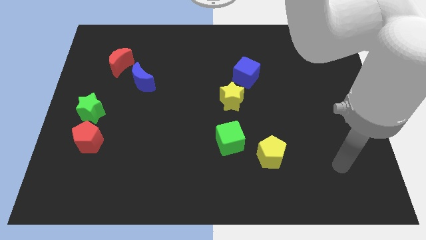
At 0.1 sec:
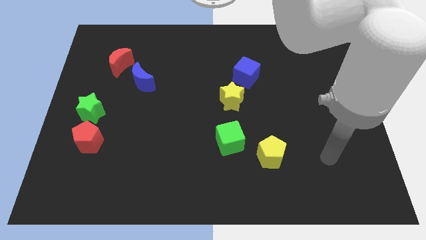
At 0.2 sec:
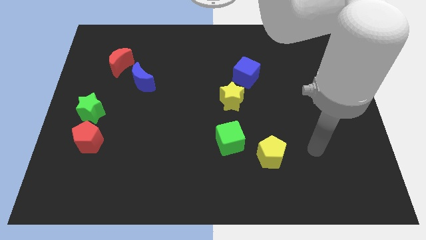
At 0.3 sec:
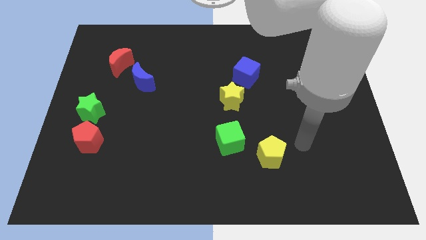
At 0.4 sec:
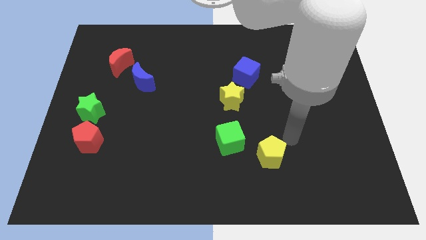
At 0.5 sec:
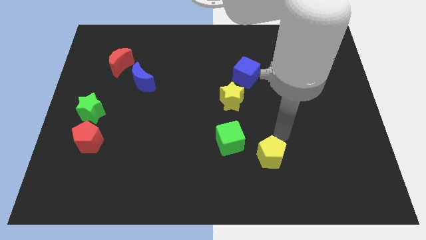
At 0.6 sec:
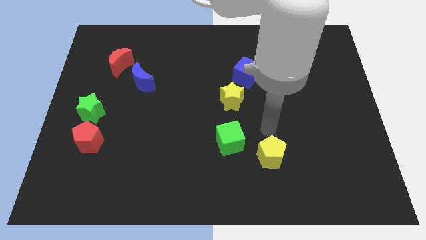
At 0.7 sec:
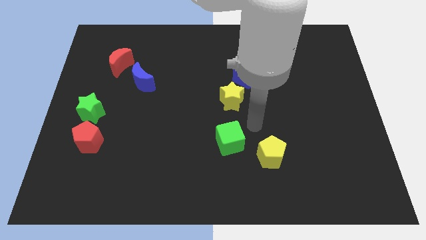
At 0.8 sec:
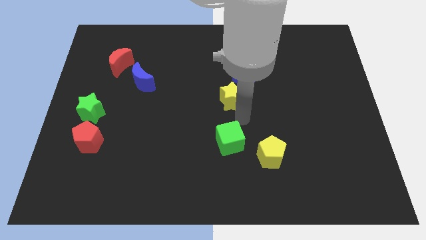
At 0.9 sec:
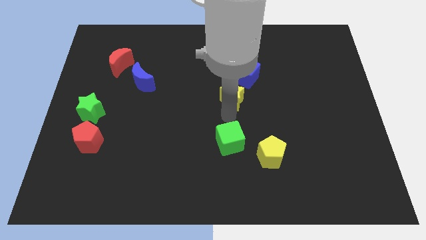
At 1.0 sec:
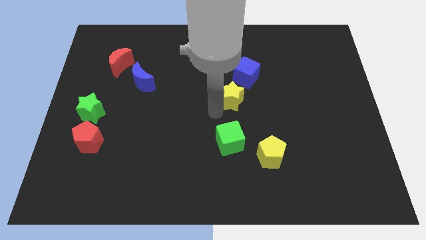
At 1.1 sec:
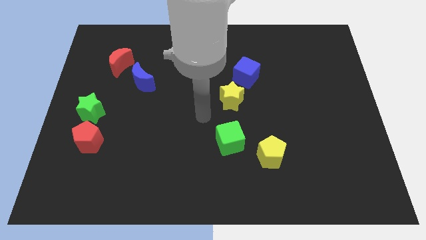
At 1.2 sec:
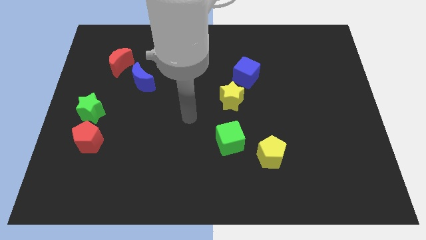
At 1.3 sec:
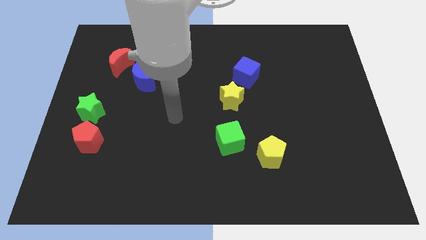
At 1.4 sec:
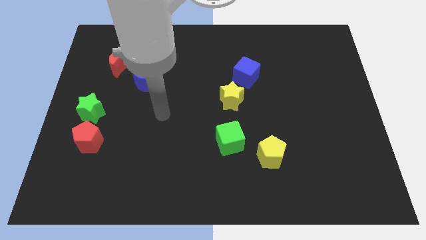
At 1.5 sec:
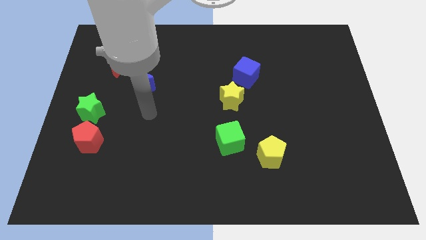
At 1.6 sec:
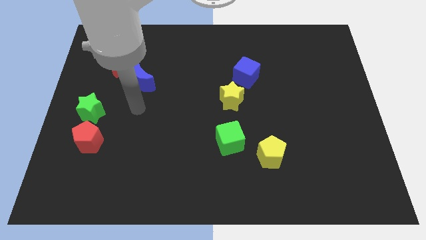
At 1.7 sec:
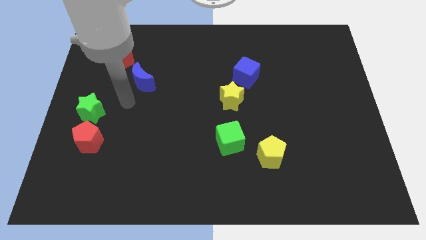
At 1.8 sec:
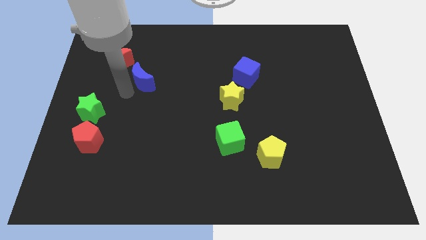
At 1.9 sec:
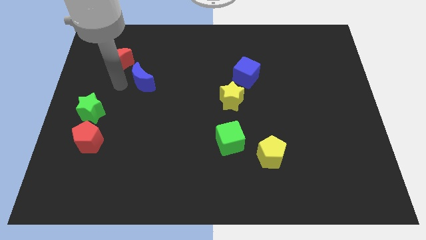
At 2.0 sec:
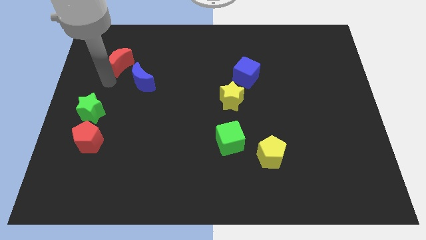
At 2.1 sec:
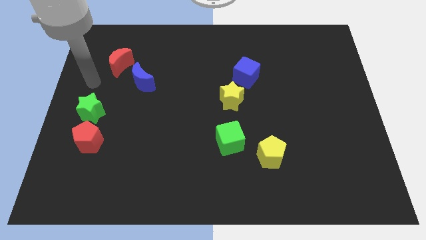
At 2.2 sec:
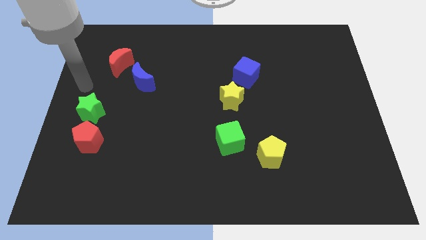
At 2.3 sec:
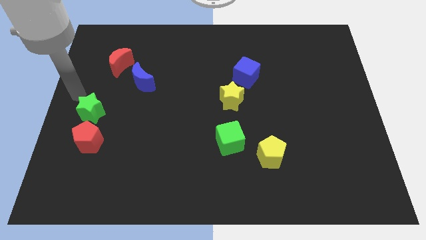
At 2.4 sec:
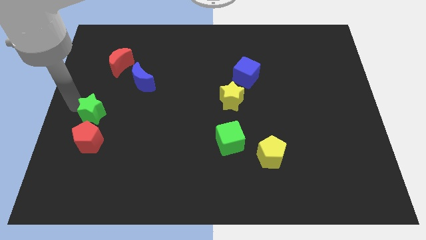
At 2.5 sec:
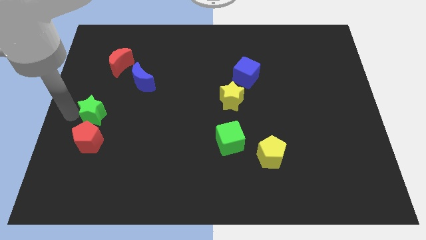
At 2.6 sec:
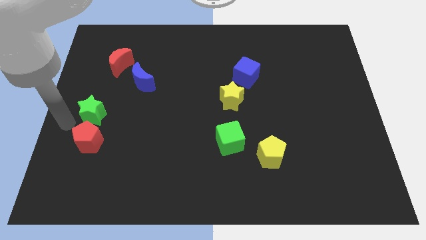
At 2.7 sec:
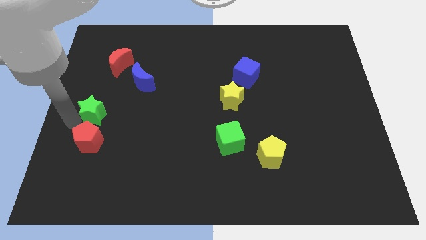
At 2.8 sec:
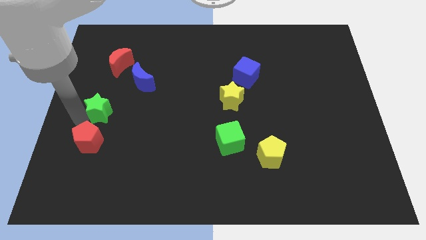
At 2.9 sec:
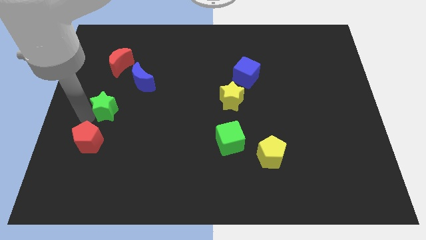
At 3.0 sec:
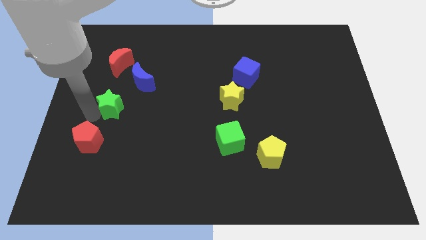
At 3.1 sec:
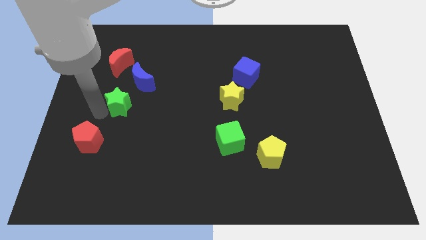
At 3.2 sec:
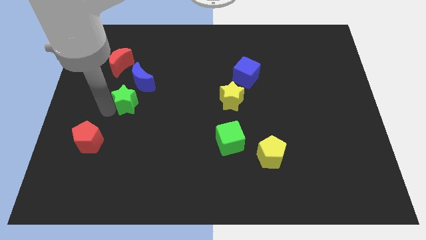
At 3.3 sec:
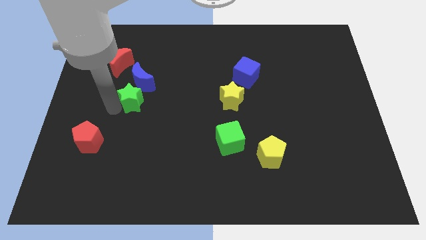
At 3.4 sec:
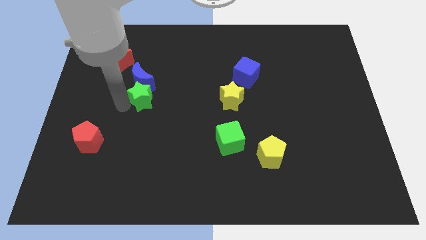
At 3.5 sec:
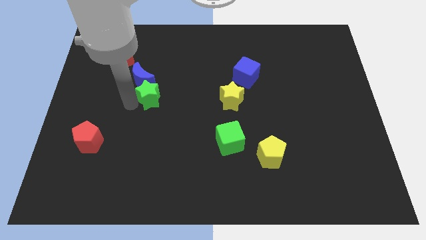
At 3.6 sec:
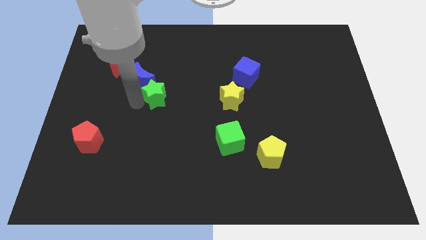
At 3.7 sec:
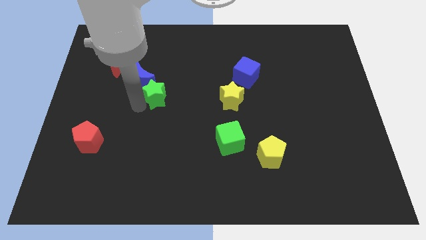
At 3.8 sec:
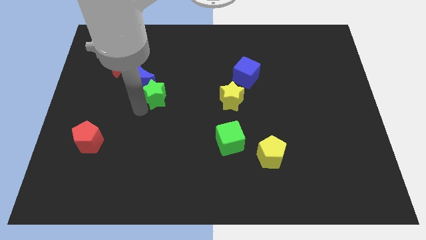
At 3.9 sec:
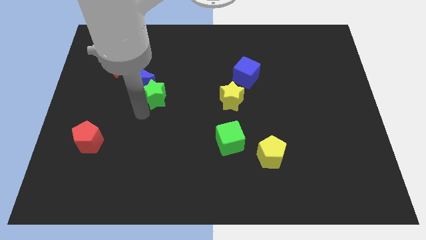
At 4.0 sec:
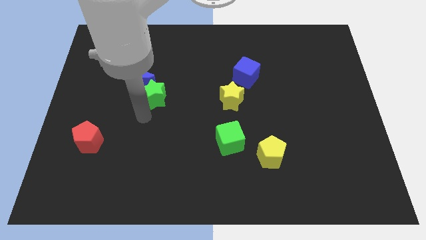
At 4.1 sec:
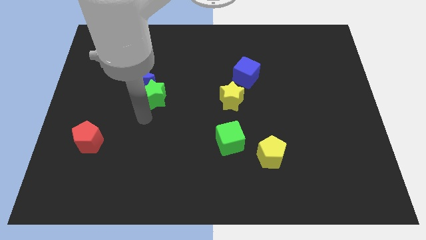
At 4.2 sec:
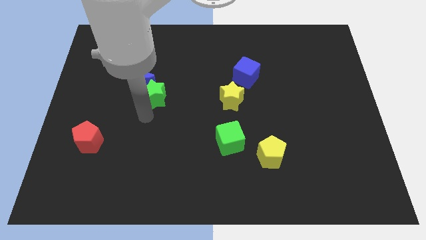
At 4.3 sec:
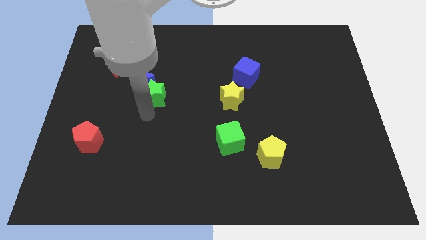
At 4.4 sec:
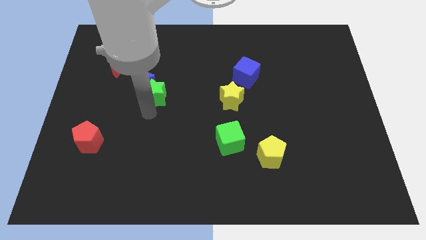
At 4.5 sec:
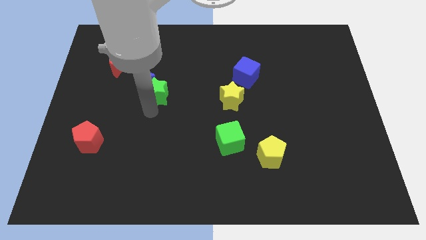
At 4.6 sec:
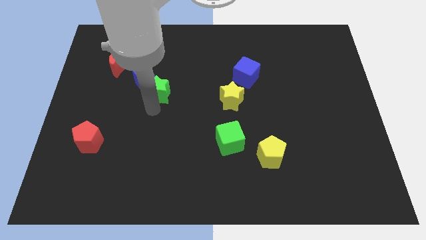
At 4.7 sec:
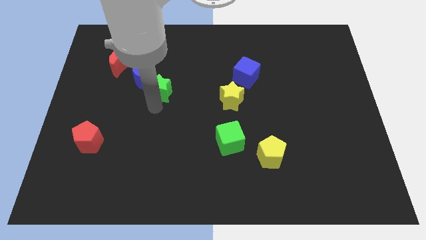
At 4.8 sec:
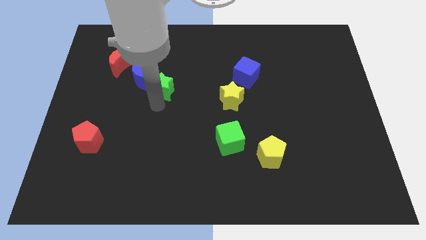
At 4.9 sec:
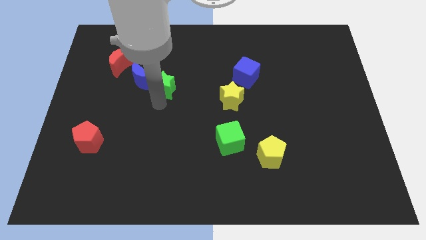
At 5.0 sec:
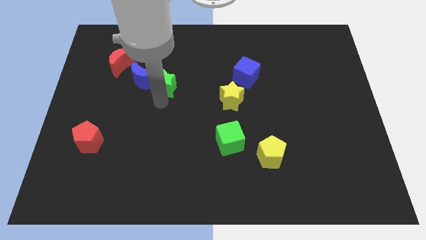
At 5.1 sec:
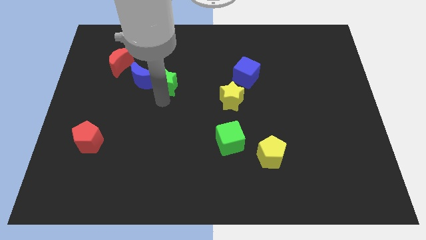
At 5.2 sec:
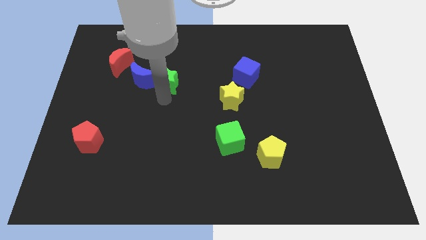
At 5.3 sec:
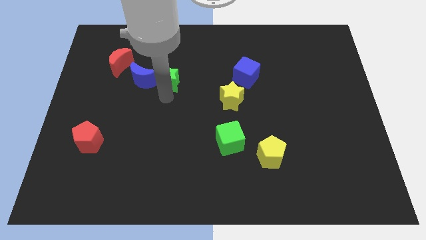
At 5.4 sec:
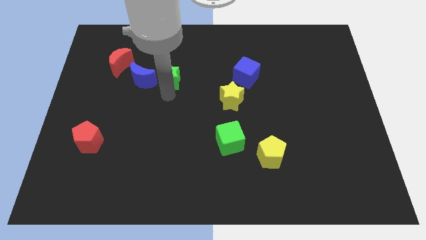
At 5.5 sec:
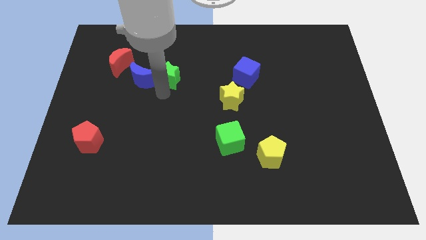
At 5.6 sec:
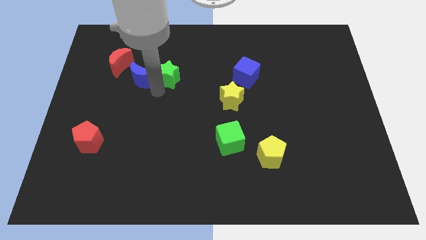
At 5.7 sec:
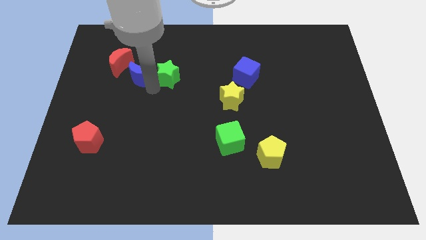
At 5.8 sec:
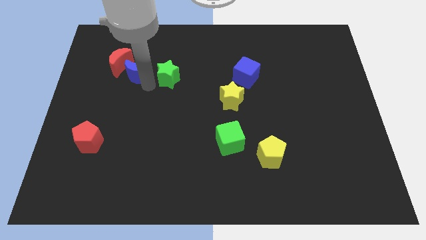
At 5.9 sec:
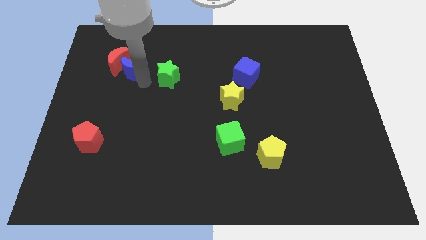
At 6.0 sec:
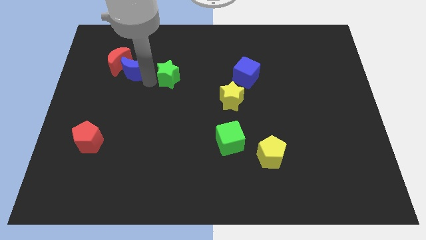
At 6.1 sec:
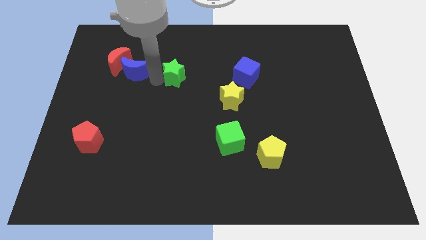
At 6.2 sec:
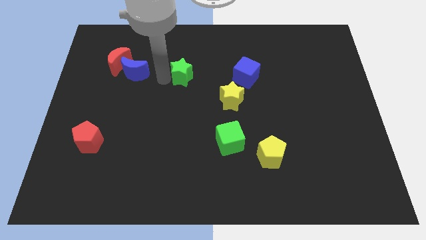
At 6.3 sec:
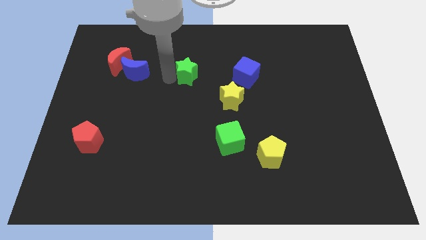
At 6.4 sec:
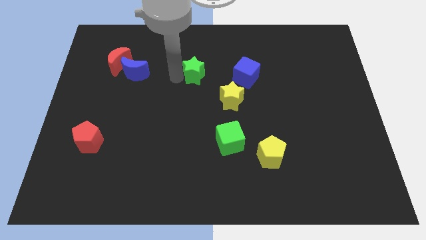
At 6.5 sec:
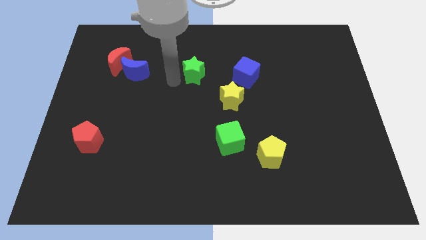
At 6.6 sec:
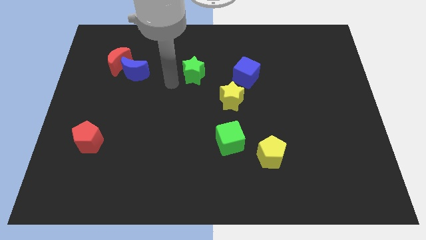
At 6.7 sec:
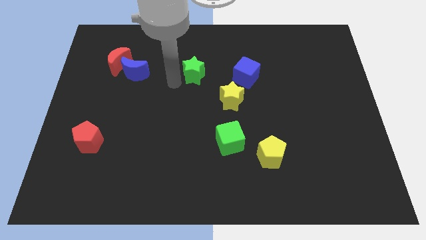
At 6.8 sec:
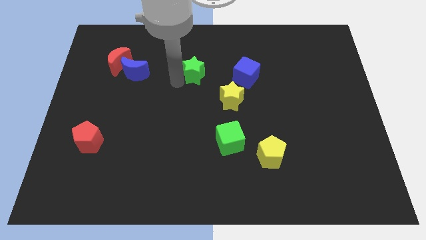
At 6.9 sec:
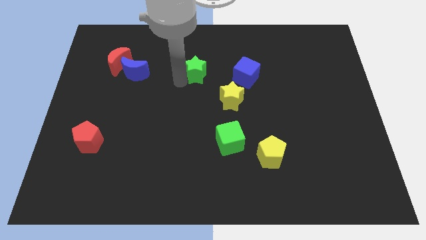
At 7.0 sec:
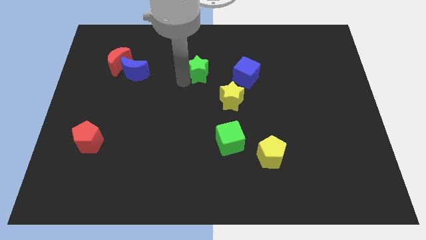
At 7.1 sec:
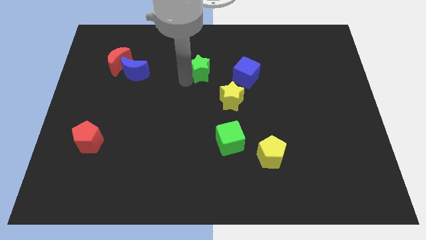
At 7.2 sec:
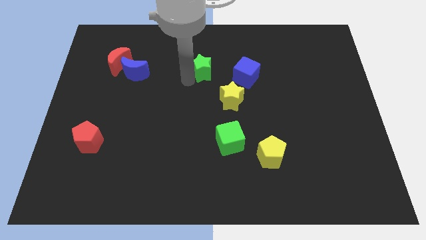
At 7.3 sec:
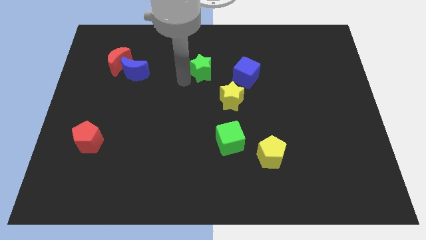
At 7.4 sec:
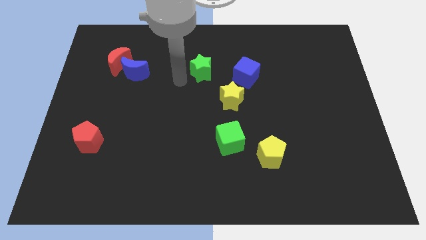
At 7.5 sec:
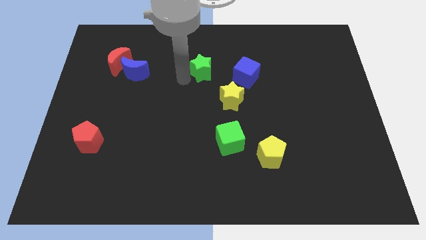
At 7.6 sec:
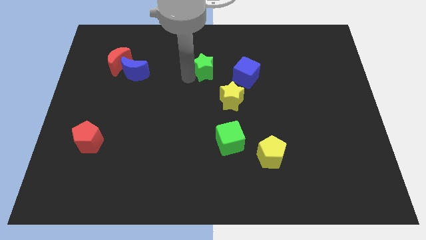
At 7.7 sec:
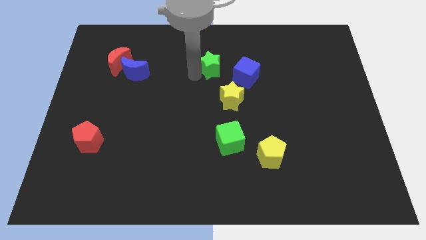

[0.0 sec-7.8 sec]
move the green star to the top left of the blue cube
